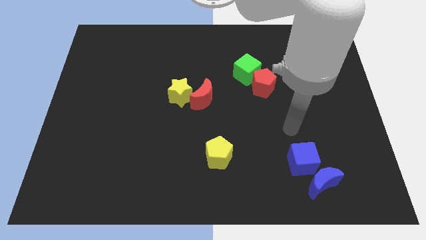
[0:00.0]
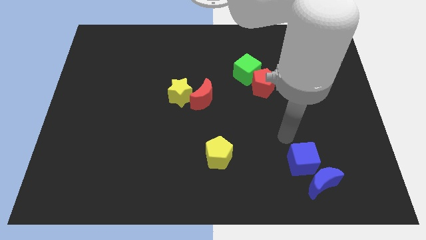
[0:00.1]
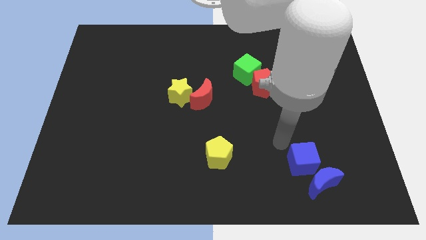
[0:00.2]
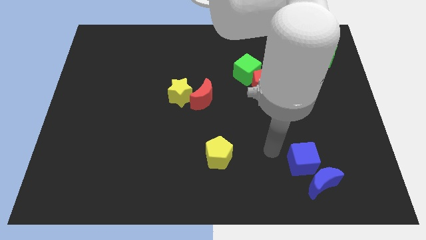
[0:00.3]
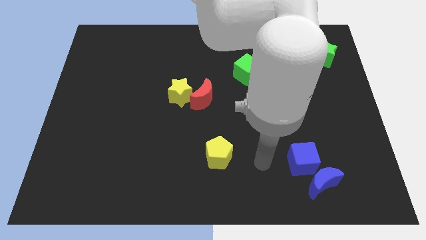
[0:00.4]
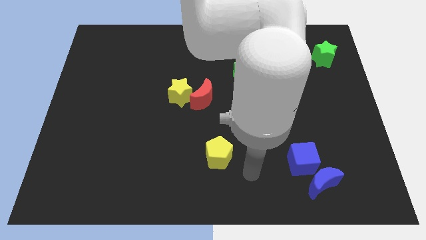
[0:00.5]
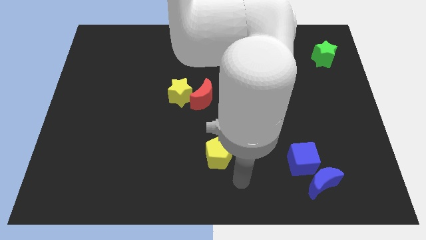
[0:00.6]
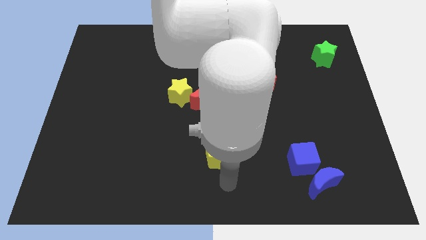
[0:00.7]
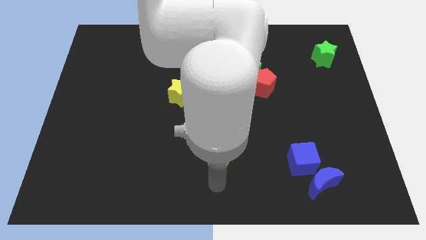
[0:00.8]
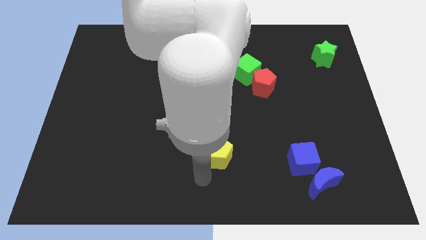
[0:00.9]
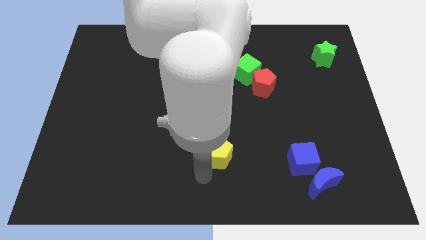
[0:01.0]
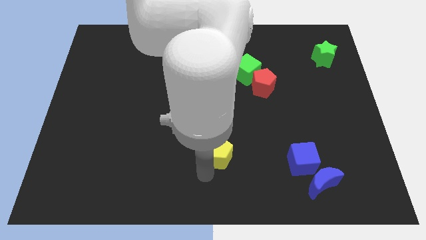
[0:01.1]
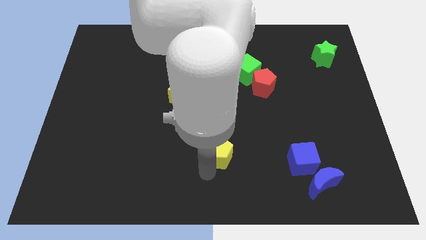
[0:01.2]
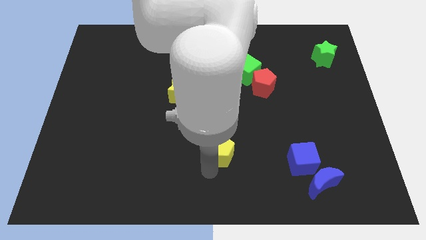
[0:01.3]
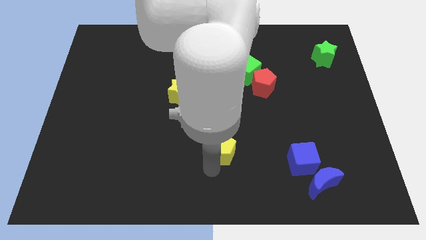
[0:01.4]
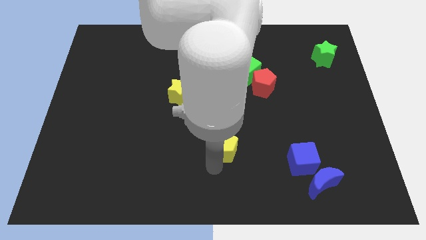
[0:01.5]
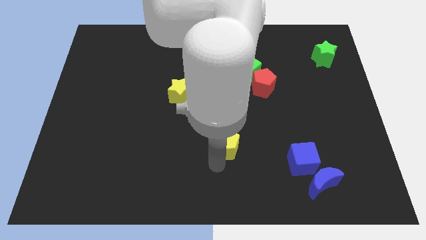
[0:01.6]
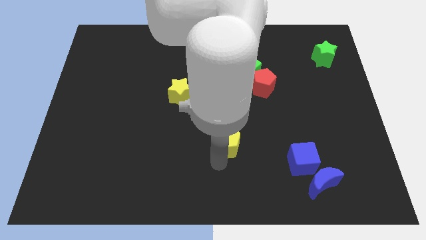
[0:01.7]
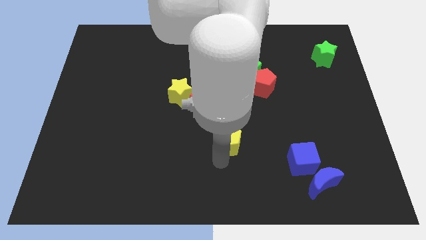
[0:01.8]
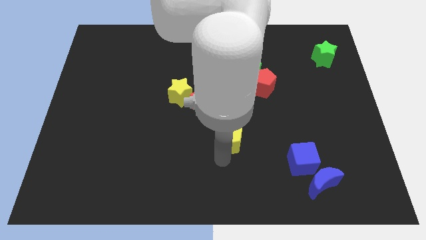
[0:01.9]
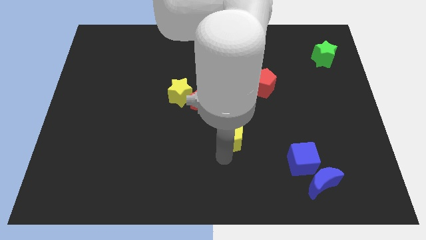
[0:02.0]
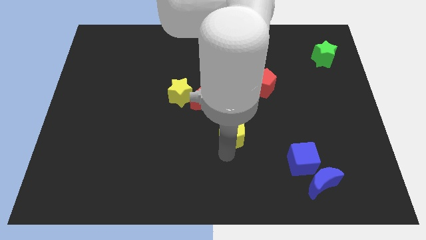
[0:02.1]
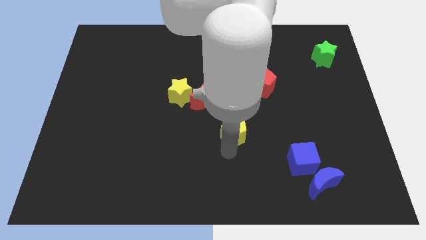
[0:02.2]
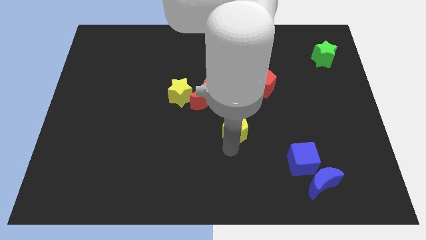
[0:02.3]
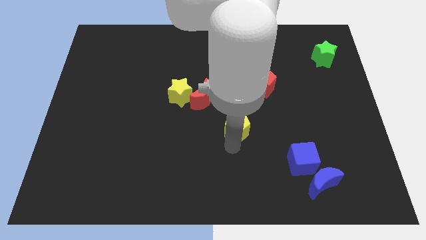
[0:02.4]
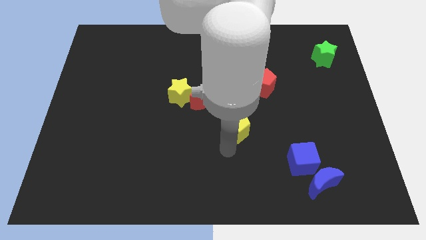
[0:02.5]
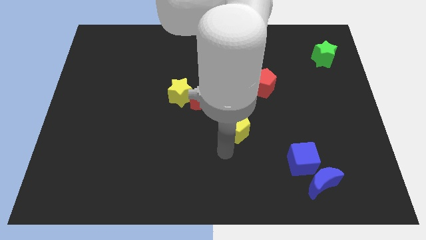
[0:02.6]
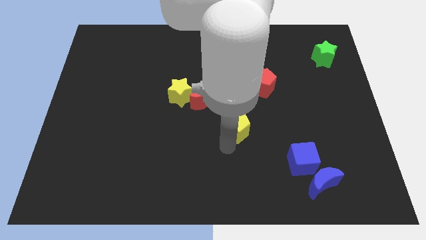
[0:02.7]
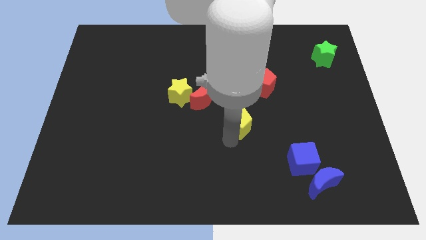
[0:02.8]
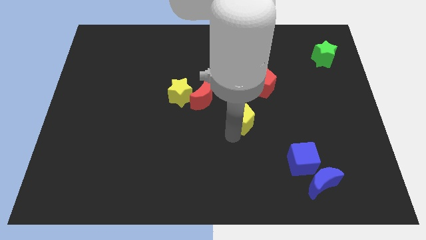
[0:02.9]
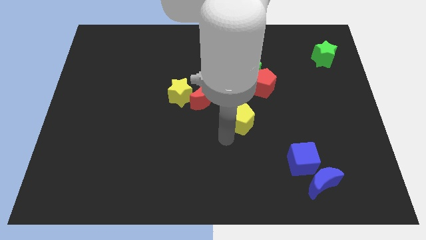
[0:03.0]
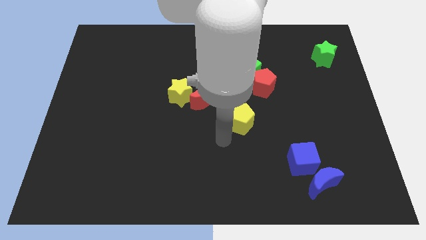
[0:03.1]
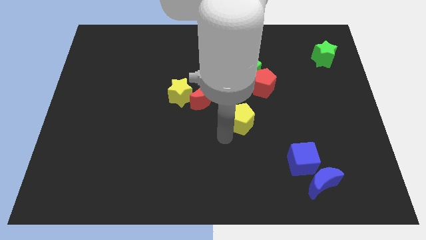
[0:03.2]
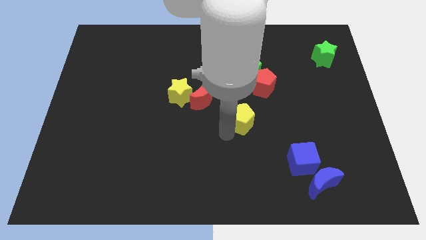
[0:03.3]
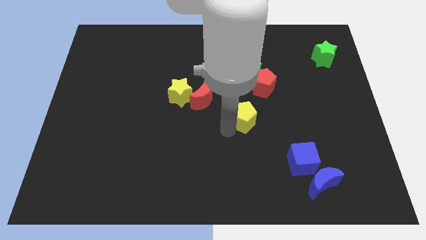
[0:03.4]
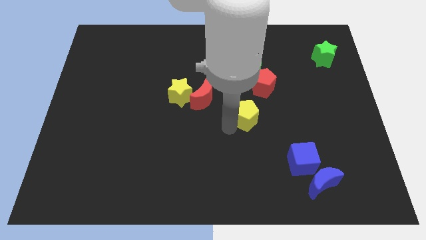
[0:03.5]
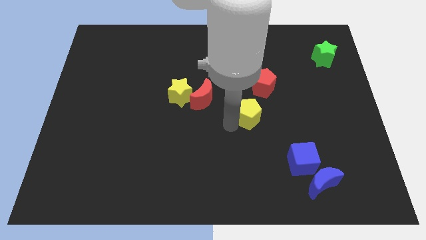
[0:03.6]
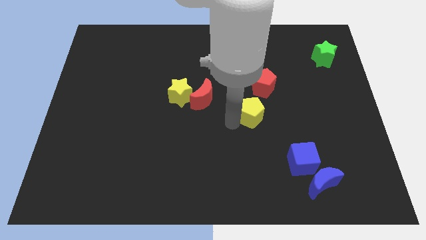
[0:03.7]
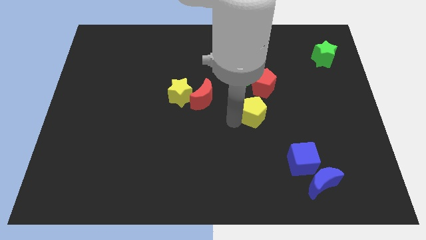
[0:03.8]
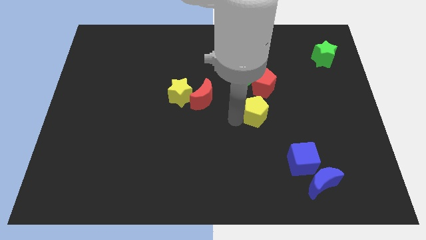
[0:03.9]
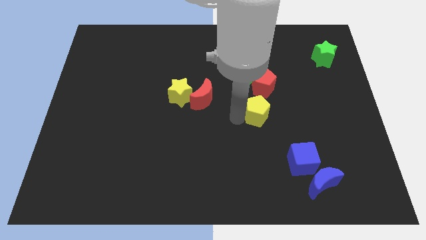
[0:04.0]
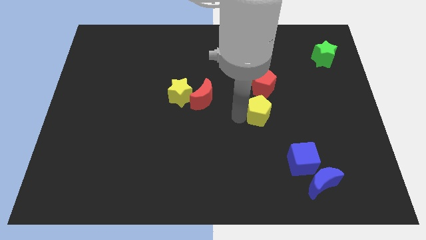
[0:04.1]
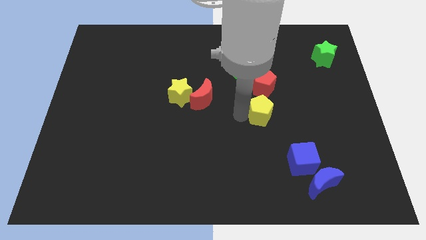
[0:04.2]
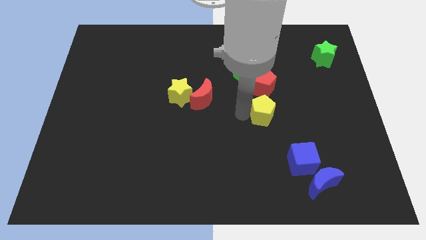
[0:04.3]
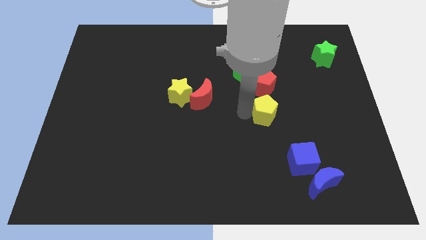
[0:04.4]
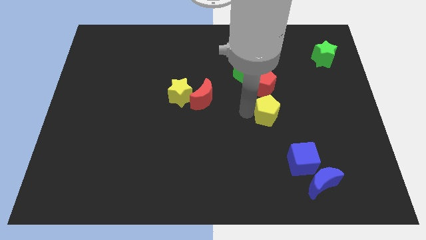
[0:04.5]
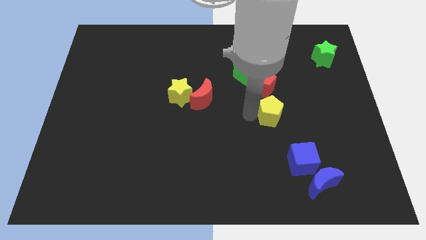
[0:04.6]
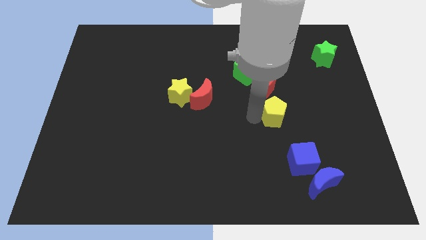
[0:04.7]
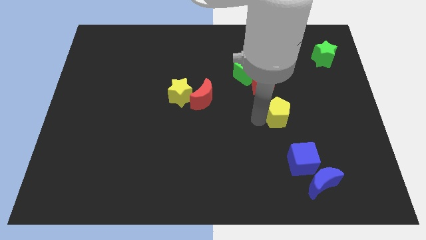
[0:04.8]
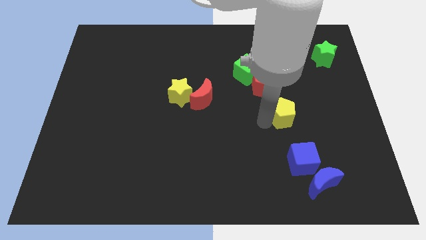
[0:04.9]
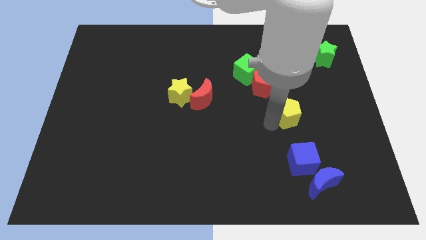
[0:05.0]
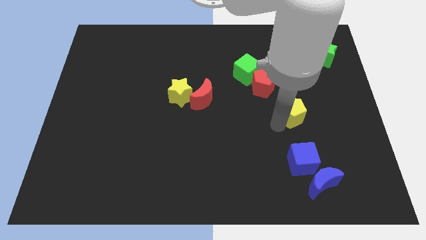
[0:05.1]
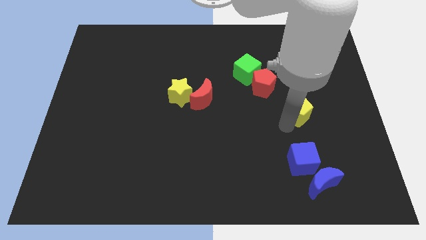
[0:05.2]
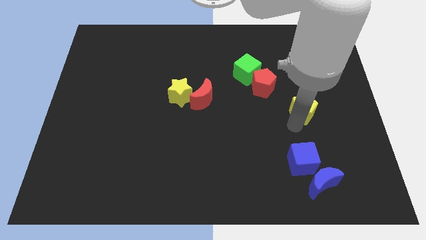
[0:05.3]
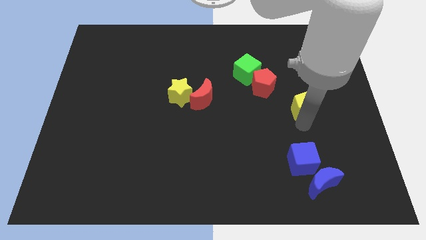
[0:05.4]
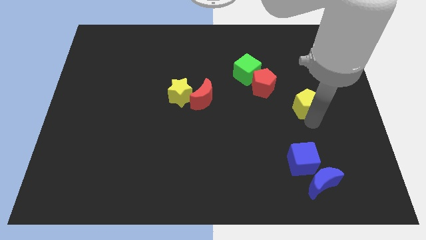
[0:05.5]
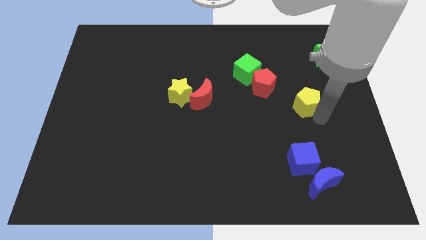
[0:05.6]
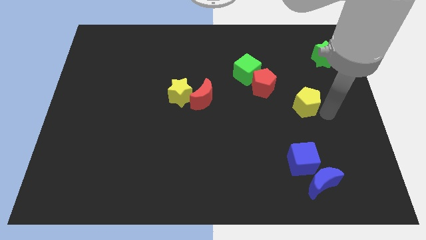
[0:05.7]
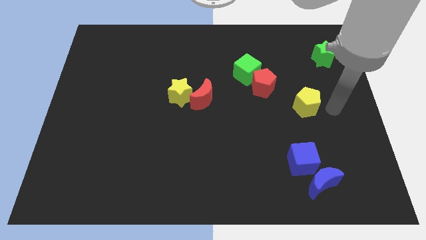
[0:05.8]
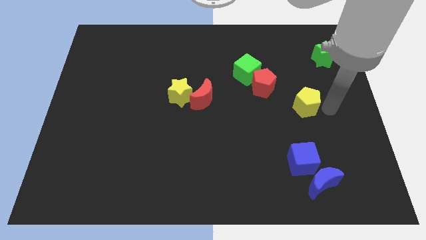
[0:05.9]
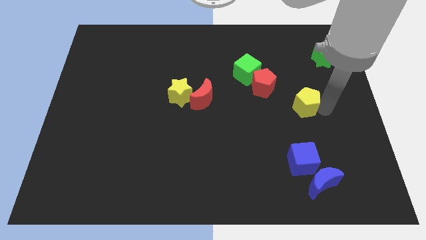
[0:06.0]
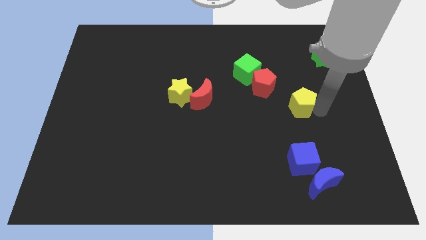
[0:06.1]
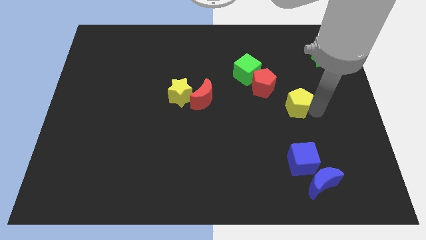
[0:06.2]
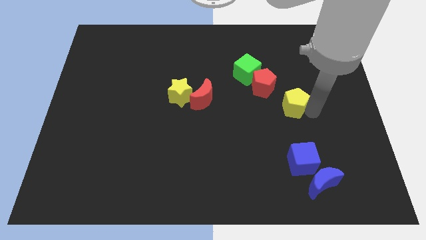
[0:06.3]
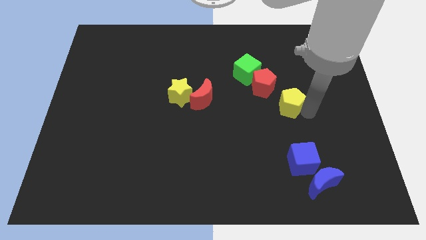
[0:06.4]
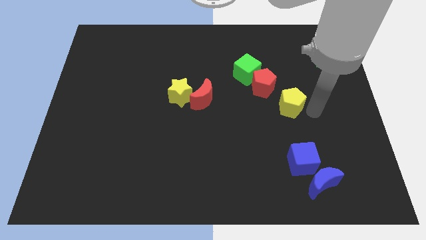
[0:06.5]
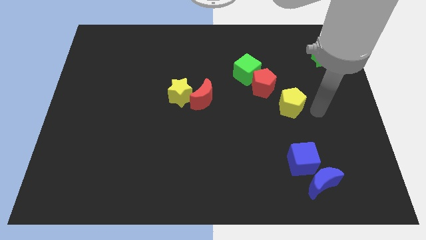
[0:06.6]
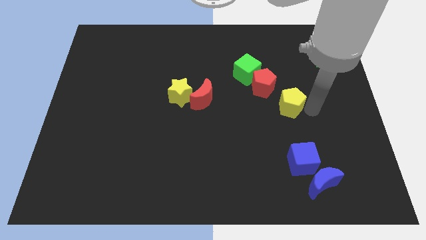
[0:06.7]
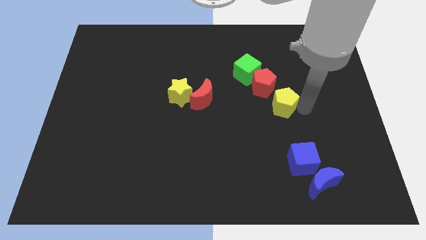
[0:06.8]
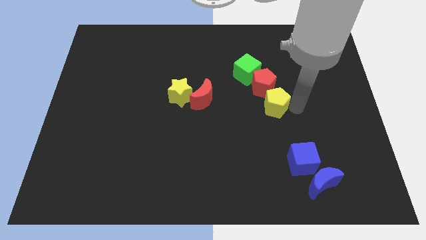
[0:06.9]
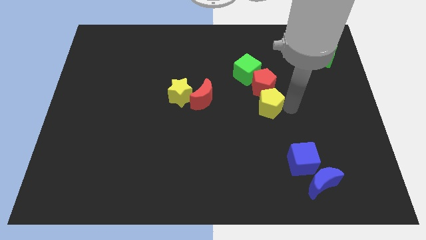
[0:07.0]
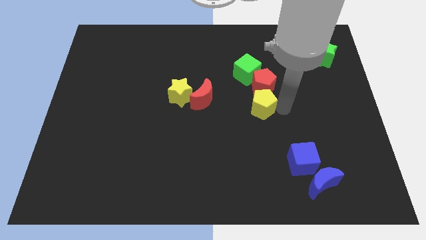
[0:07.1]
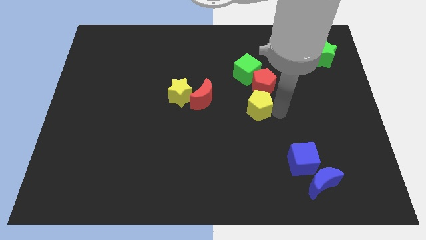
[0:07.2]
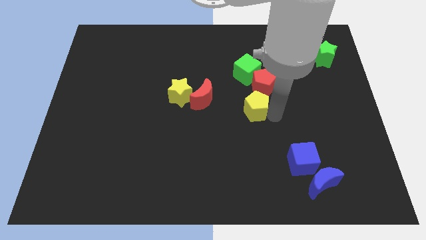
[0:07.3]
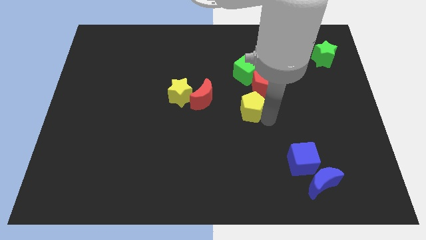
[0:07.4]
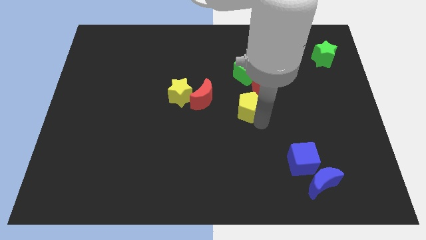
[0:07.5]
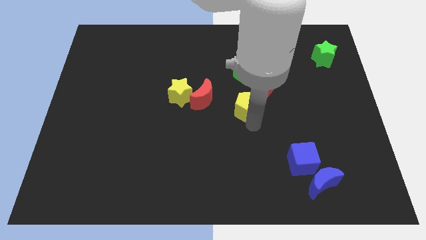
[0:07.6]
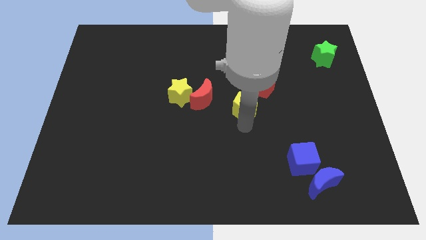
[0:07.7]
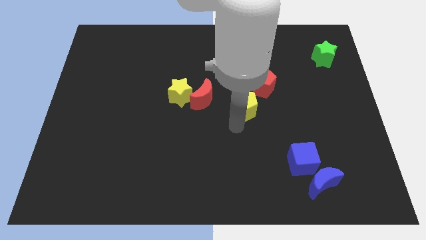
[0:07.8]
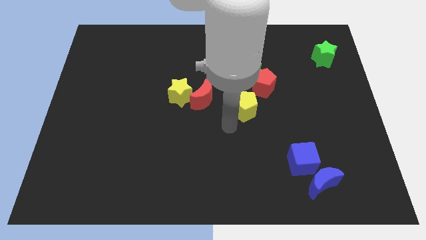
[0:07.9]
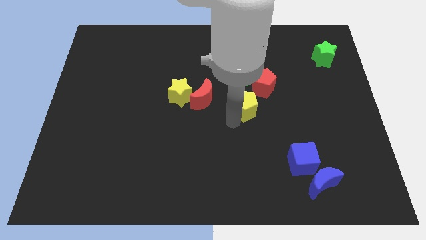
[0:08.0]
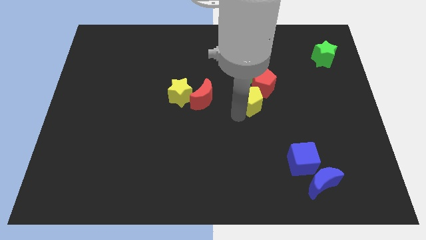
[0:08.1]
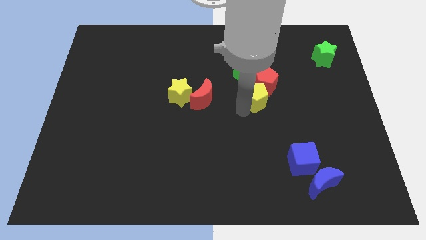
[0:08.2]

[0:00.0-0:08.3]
put the yellow pentagon to the red pentagon
